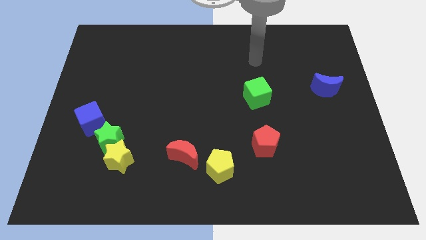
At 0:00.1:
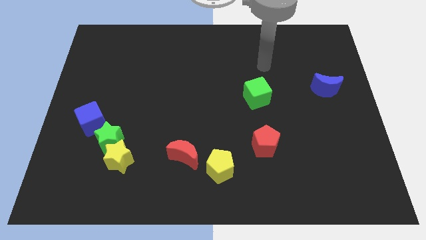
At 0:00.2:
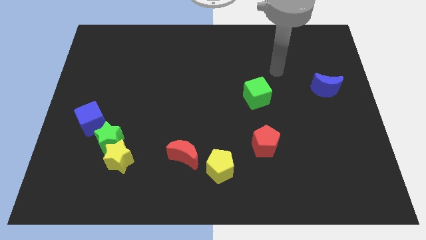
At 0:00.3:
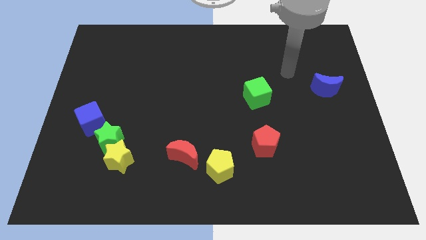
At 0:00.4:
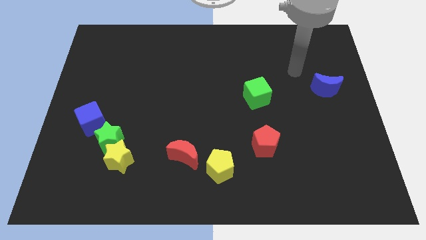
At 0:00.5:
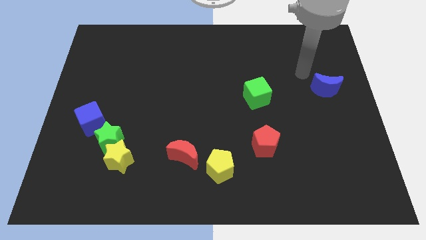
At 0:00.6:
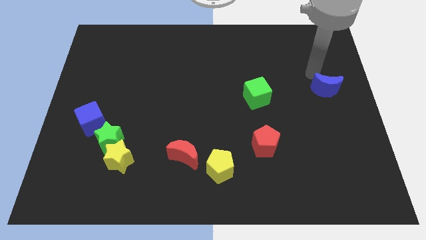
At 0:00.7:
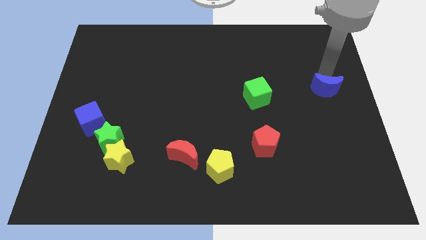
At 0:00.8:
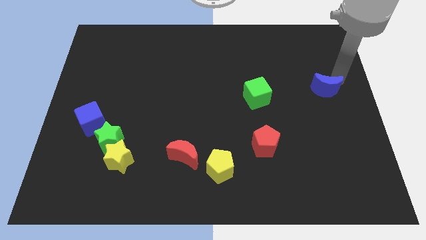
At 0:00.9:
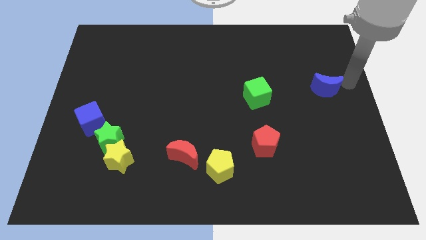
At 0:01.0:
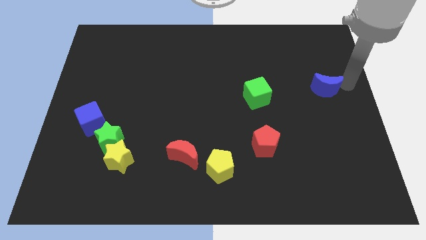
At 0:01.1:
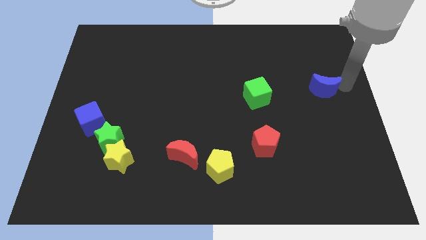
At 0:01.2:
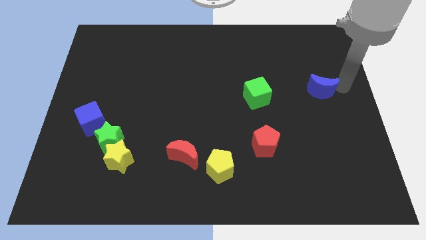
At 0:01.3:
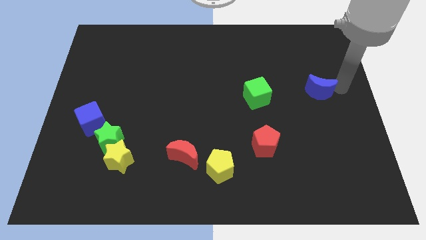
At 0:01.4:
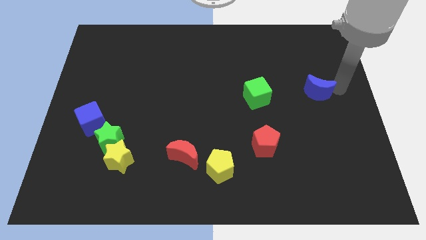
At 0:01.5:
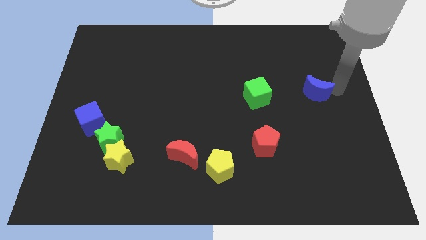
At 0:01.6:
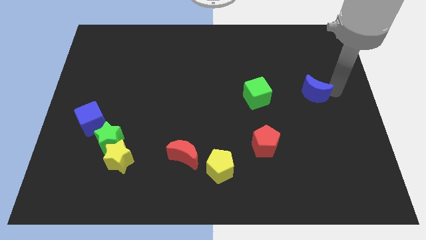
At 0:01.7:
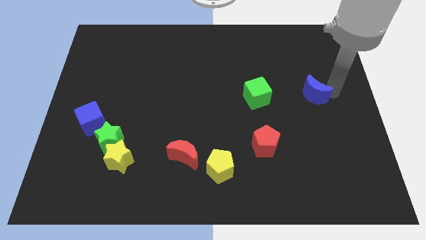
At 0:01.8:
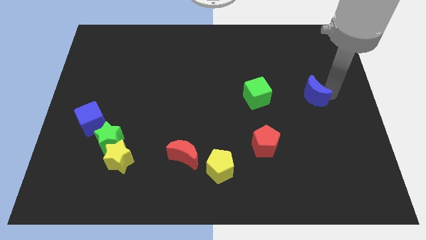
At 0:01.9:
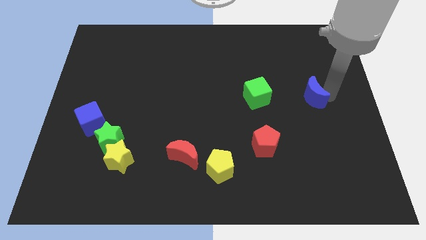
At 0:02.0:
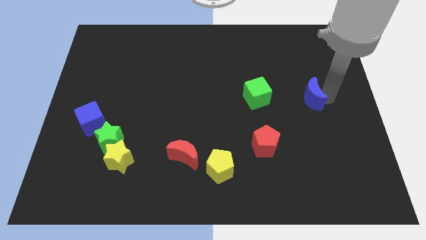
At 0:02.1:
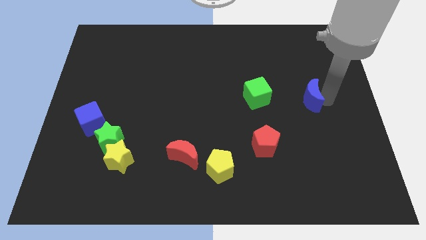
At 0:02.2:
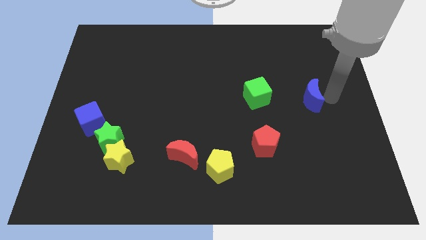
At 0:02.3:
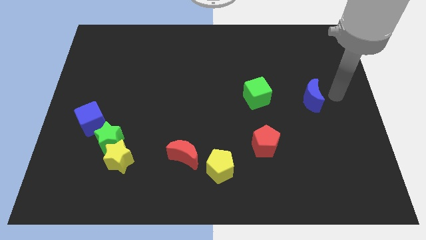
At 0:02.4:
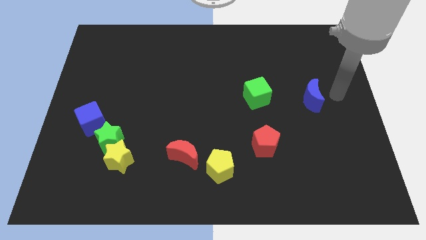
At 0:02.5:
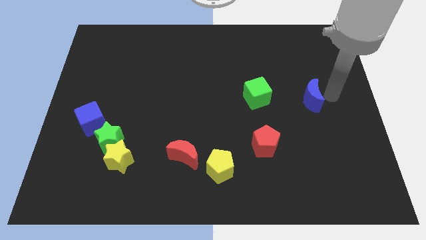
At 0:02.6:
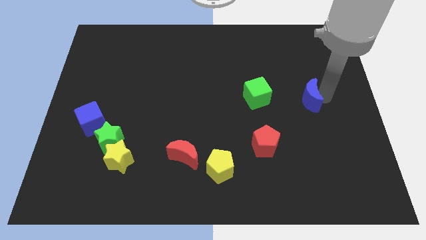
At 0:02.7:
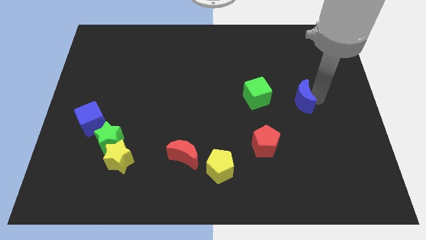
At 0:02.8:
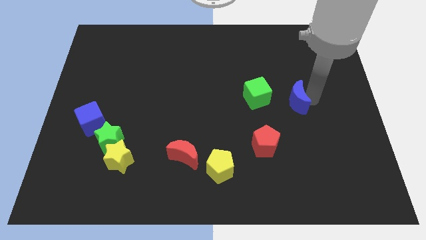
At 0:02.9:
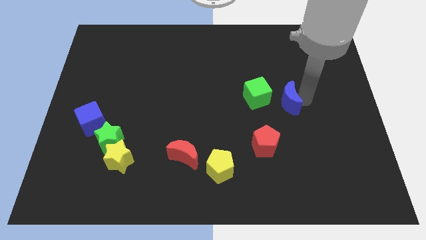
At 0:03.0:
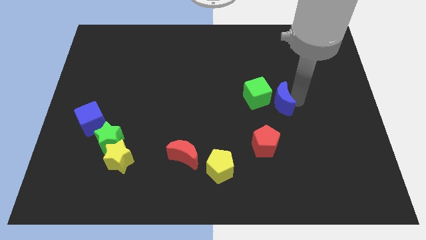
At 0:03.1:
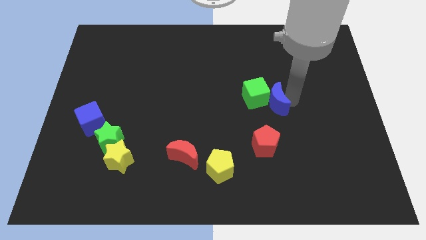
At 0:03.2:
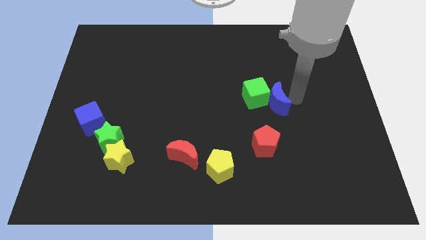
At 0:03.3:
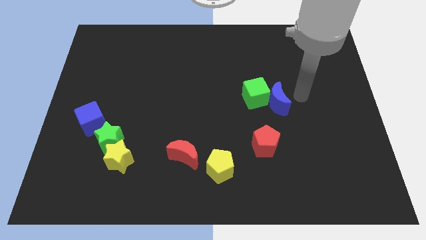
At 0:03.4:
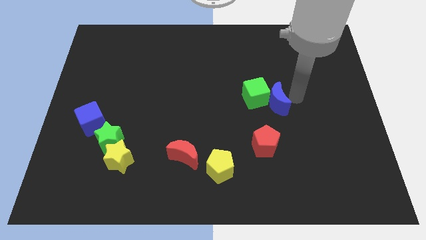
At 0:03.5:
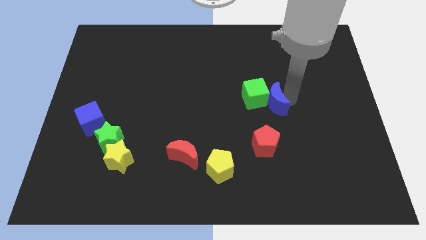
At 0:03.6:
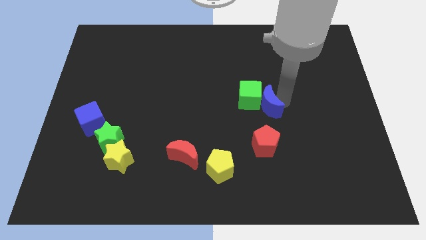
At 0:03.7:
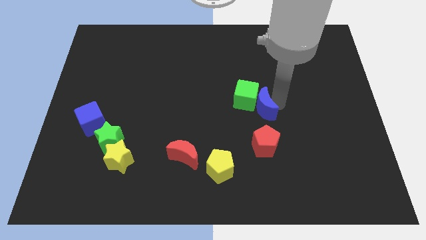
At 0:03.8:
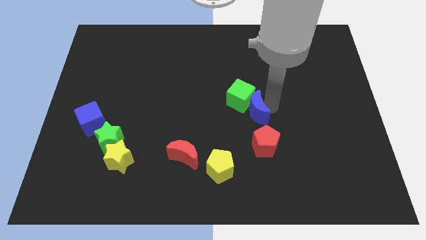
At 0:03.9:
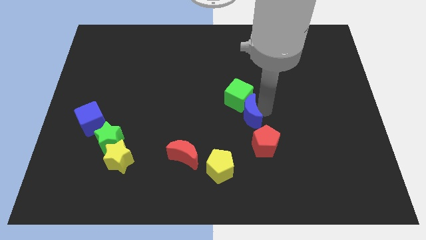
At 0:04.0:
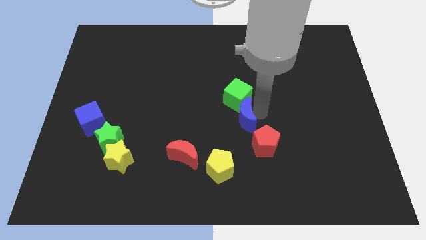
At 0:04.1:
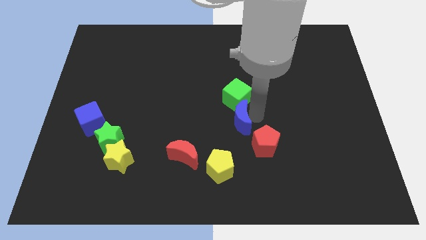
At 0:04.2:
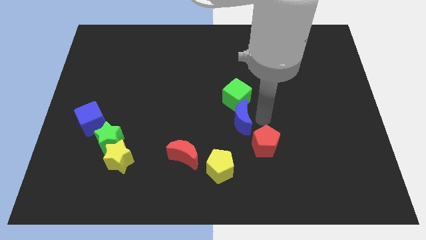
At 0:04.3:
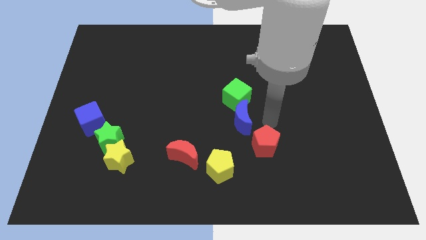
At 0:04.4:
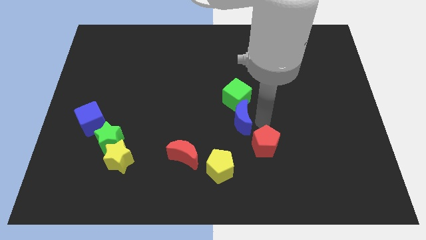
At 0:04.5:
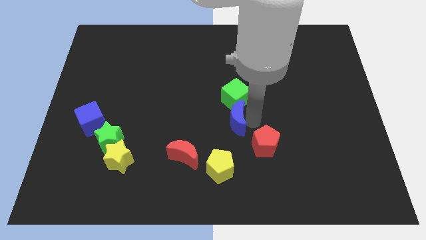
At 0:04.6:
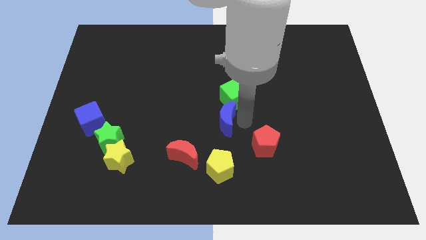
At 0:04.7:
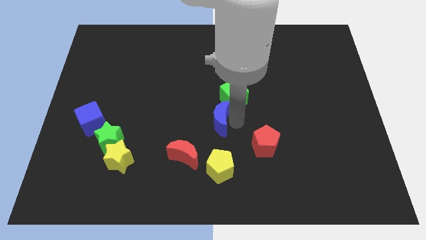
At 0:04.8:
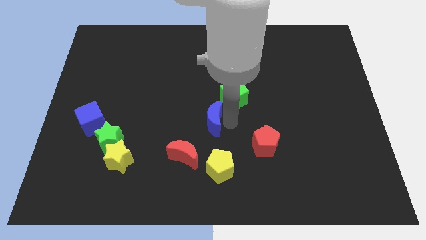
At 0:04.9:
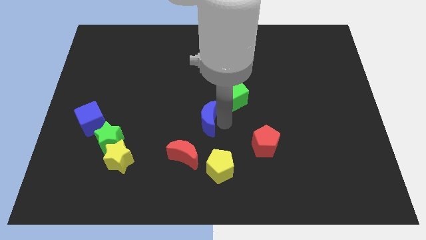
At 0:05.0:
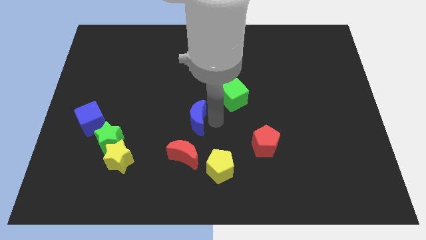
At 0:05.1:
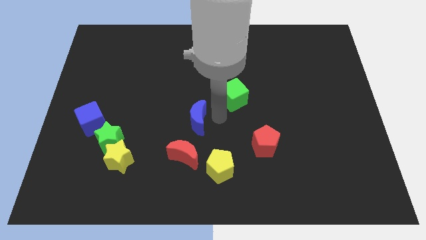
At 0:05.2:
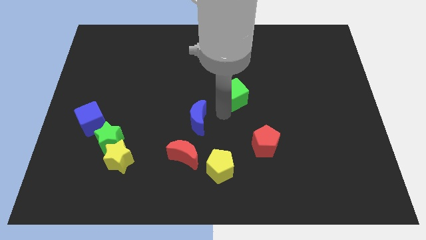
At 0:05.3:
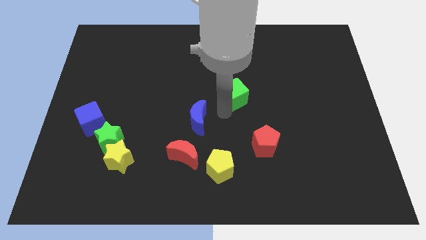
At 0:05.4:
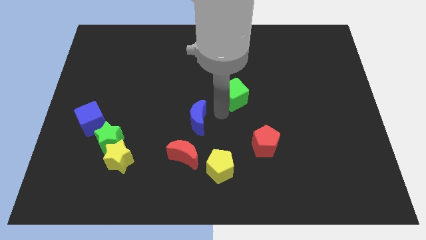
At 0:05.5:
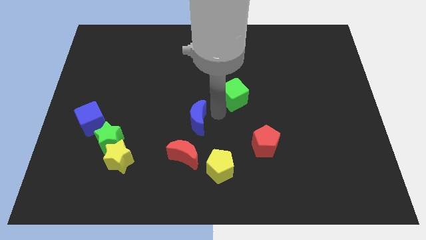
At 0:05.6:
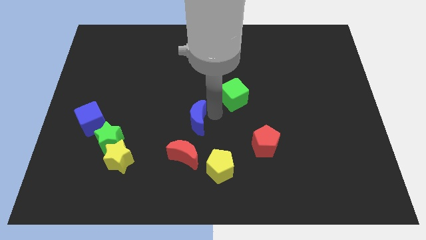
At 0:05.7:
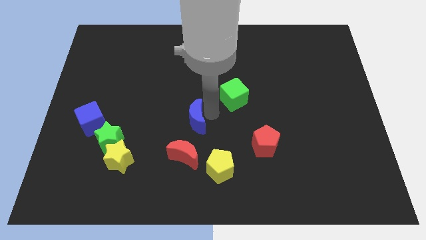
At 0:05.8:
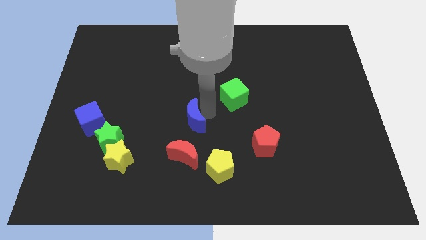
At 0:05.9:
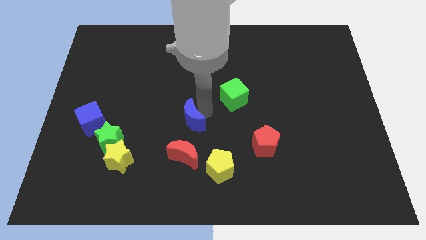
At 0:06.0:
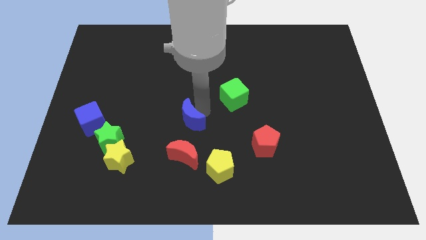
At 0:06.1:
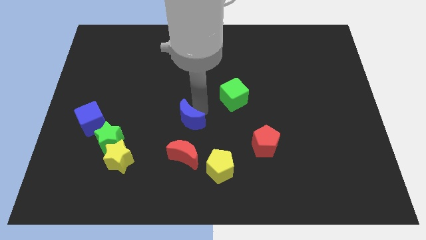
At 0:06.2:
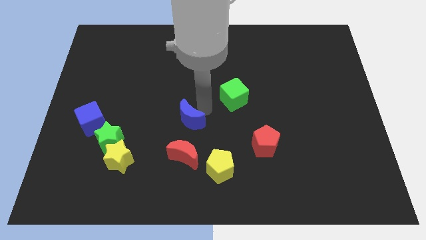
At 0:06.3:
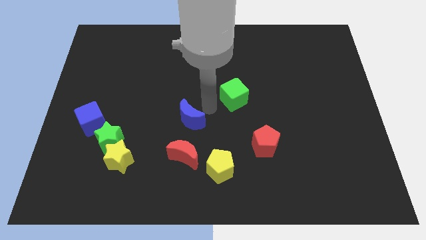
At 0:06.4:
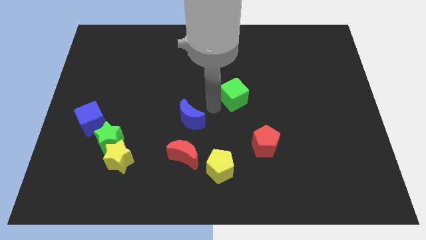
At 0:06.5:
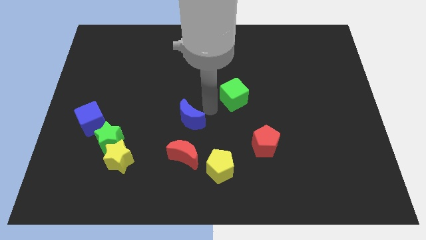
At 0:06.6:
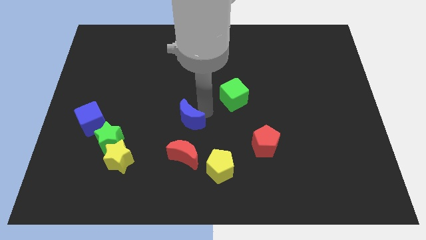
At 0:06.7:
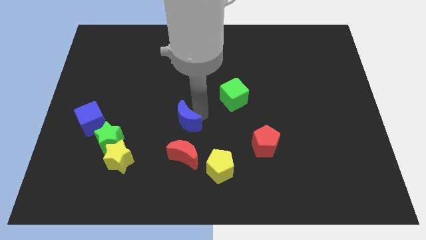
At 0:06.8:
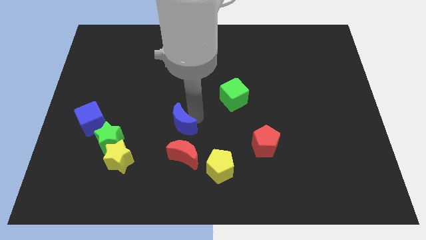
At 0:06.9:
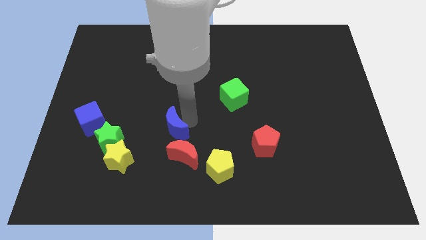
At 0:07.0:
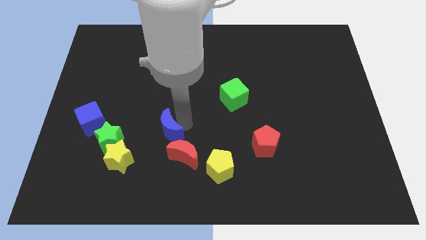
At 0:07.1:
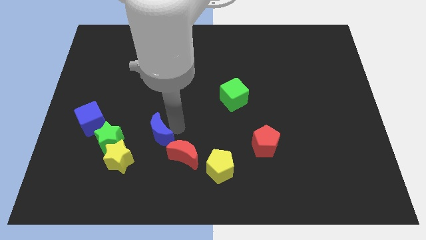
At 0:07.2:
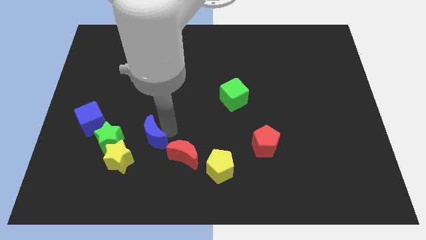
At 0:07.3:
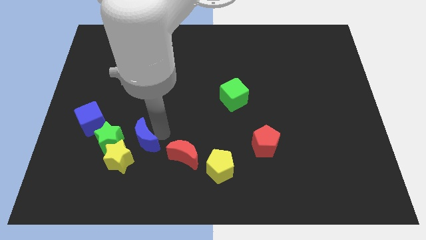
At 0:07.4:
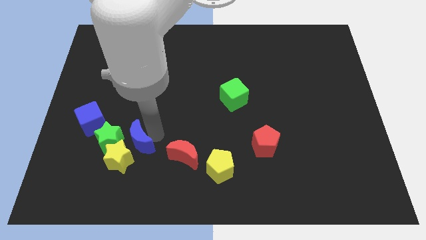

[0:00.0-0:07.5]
push the blue moon next to the yellow star

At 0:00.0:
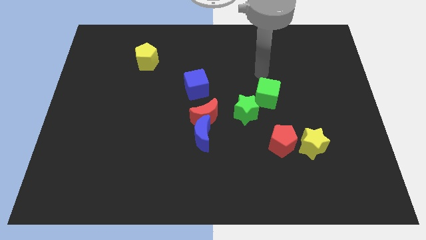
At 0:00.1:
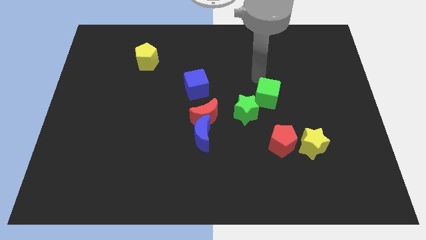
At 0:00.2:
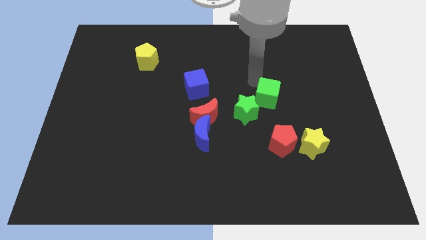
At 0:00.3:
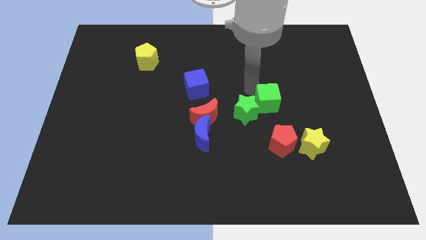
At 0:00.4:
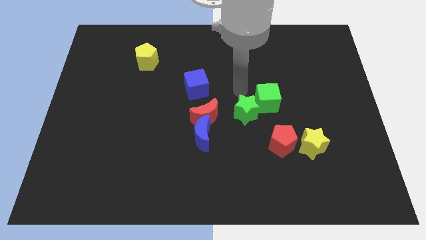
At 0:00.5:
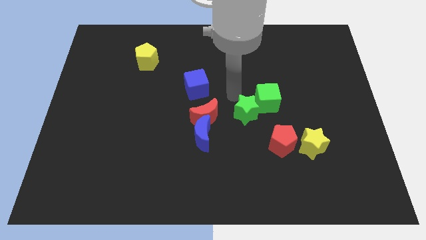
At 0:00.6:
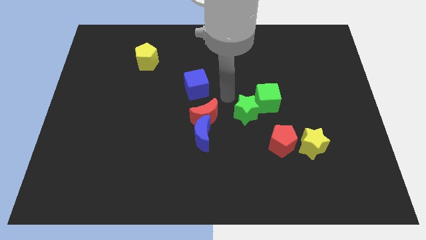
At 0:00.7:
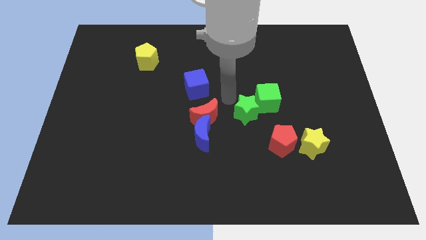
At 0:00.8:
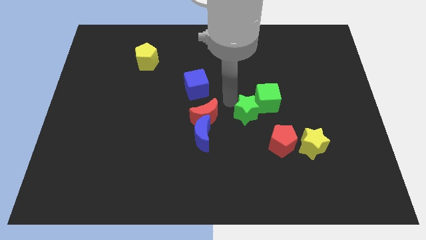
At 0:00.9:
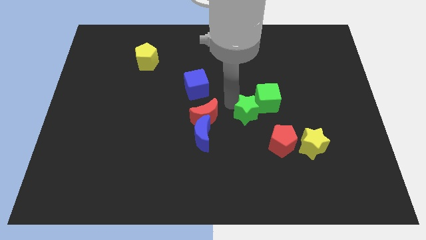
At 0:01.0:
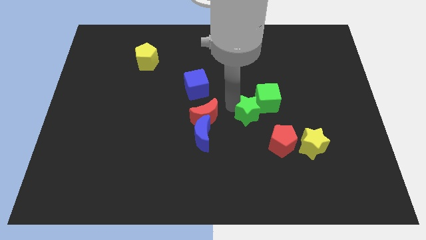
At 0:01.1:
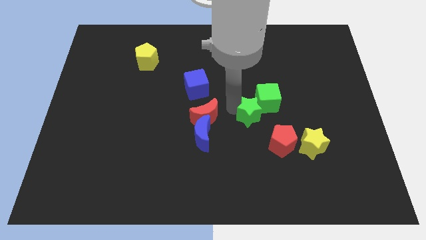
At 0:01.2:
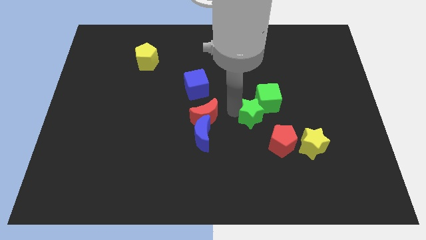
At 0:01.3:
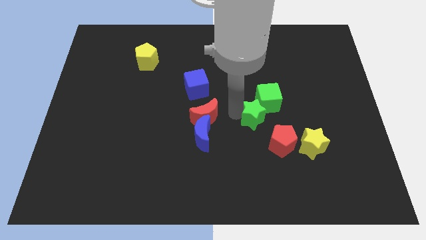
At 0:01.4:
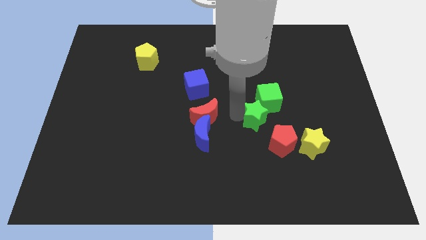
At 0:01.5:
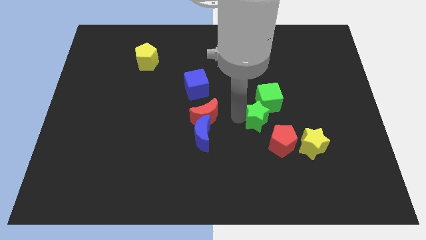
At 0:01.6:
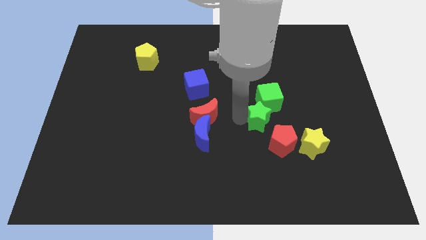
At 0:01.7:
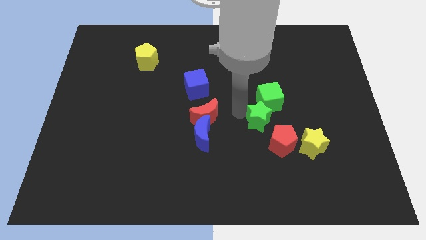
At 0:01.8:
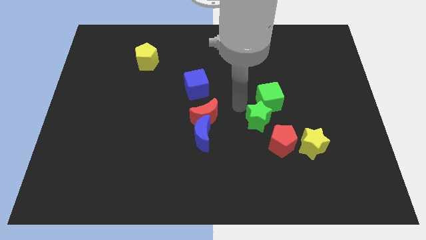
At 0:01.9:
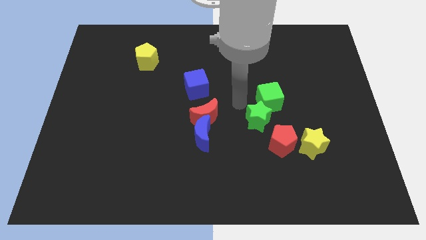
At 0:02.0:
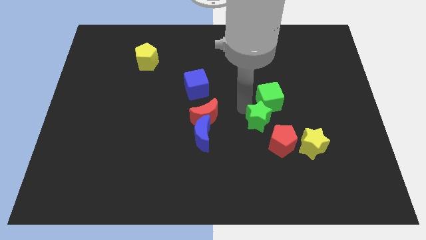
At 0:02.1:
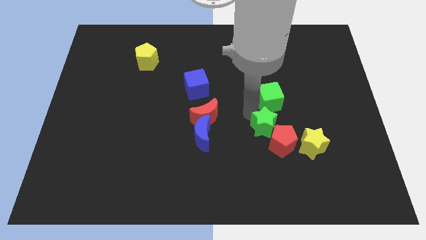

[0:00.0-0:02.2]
slide the green star to the red pentagon
